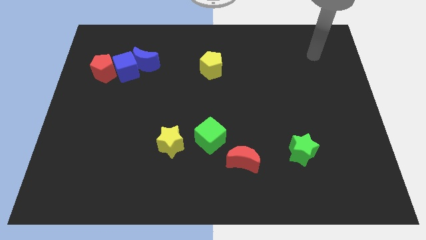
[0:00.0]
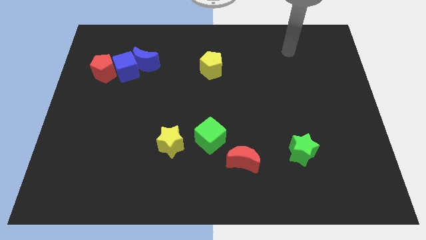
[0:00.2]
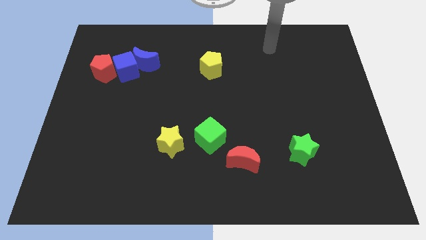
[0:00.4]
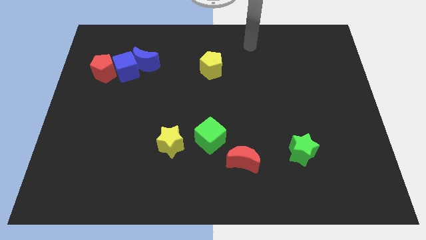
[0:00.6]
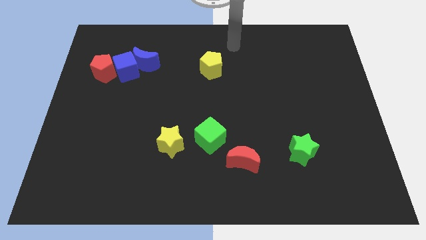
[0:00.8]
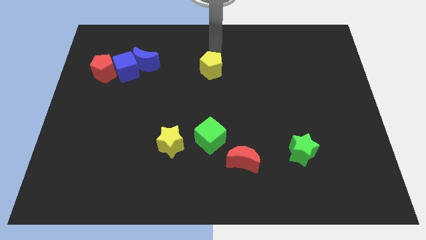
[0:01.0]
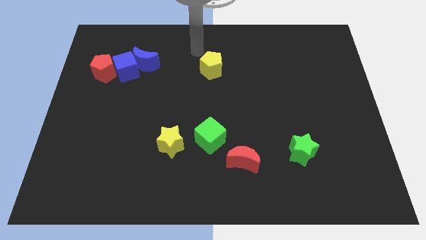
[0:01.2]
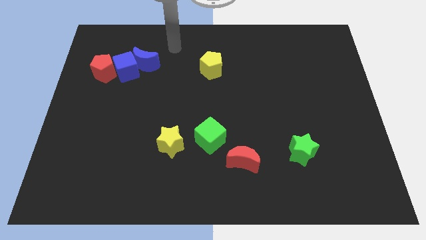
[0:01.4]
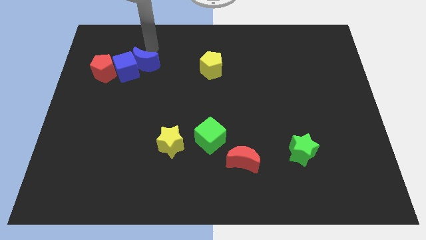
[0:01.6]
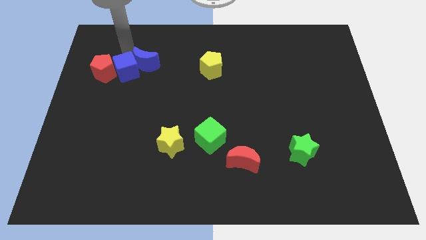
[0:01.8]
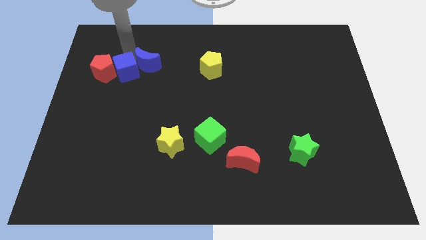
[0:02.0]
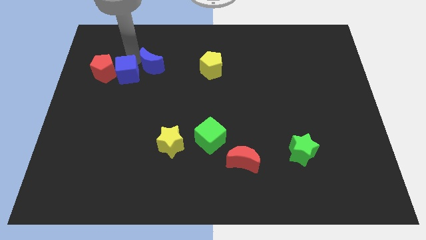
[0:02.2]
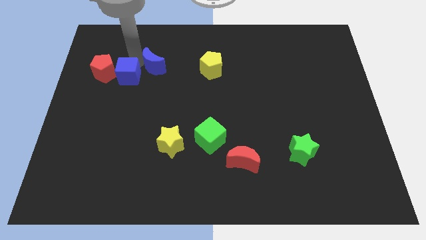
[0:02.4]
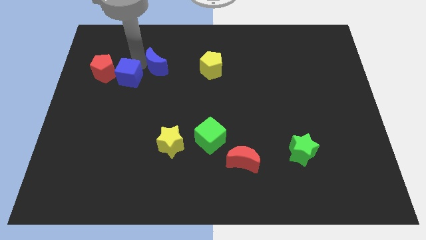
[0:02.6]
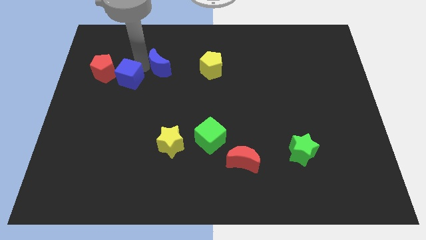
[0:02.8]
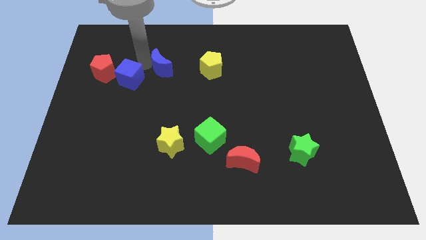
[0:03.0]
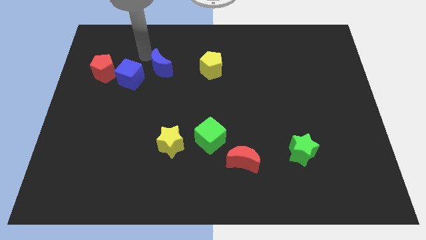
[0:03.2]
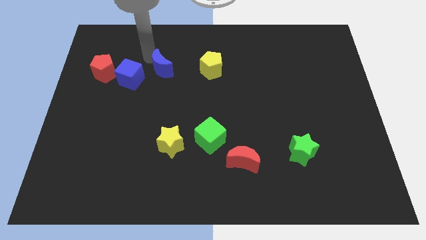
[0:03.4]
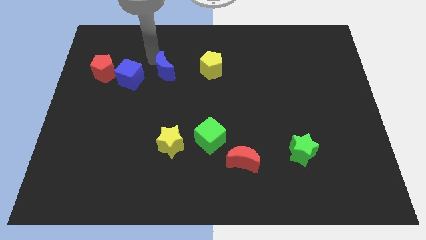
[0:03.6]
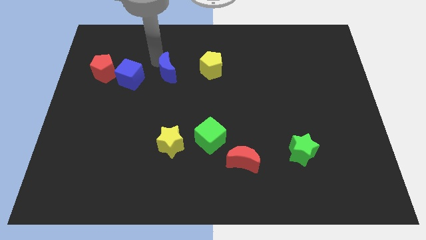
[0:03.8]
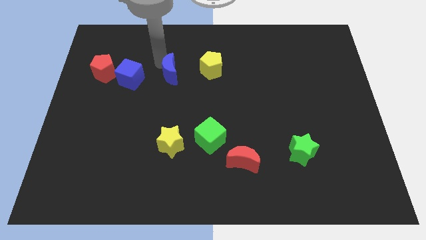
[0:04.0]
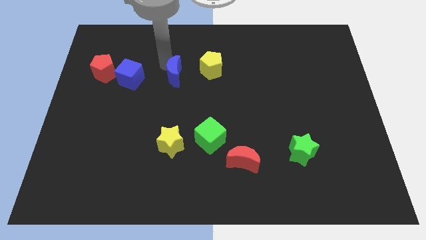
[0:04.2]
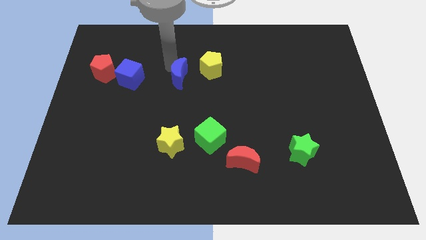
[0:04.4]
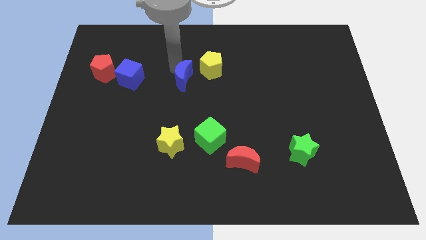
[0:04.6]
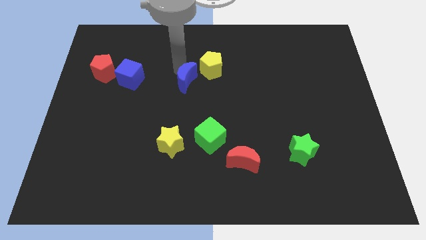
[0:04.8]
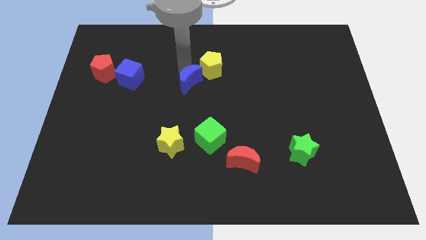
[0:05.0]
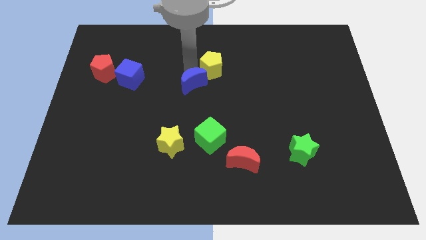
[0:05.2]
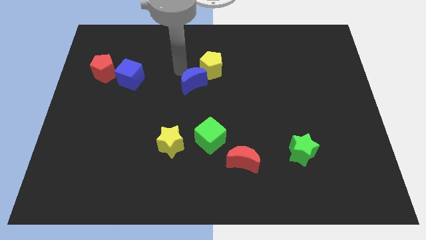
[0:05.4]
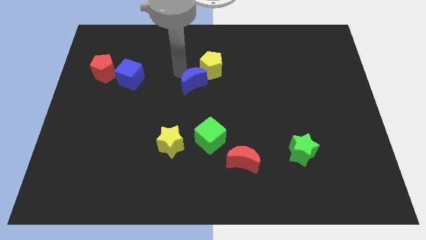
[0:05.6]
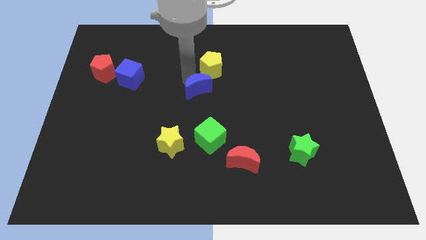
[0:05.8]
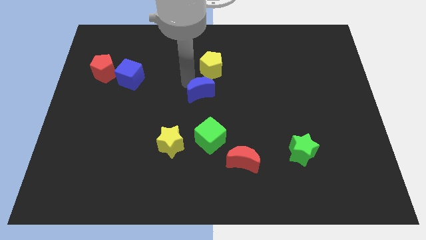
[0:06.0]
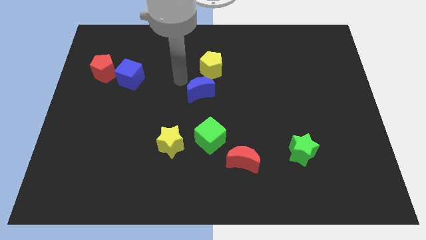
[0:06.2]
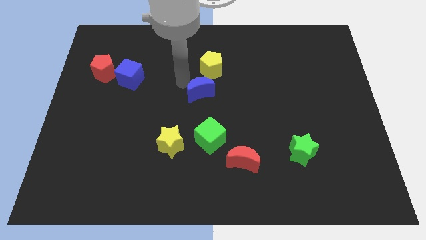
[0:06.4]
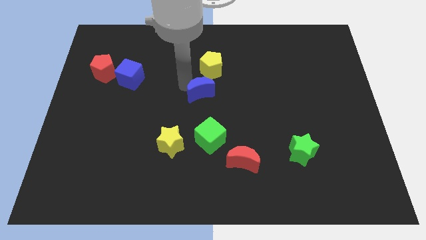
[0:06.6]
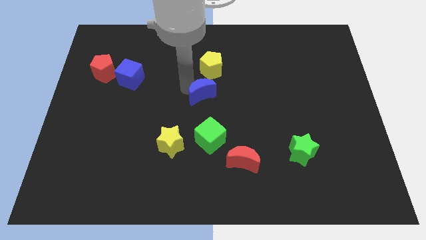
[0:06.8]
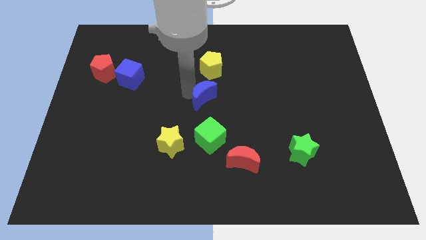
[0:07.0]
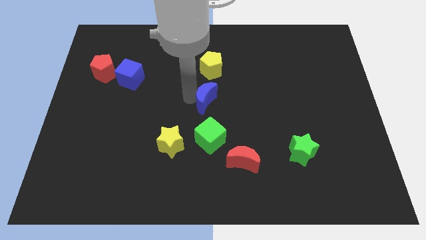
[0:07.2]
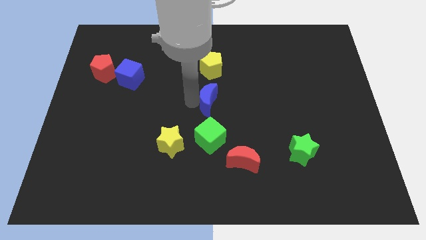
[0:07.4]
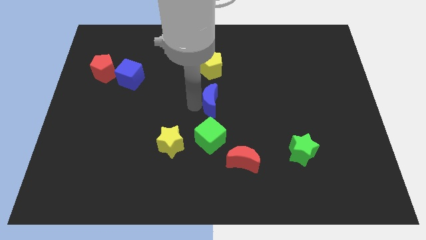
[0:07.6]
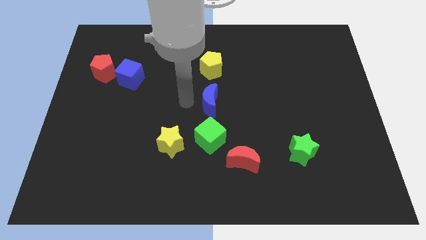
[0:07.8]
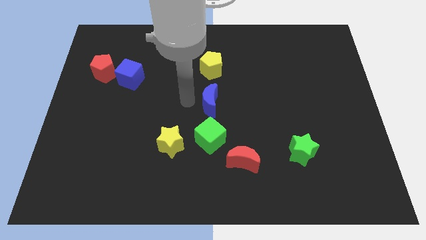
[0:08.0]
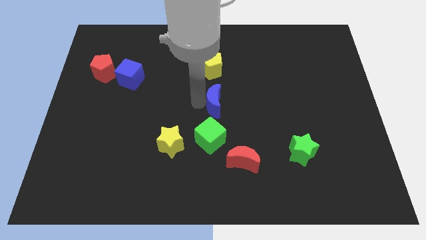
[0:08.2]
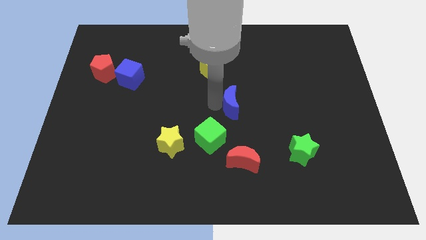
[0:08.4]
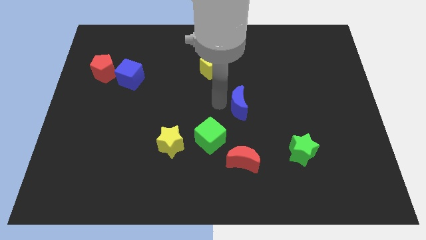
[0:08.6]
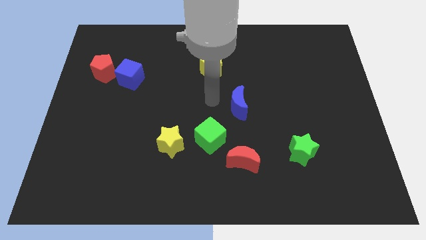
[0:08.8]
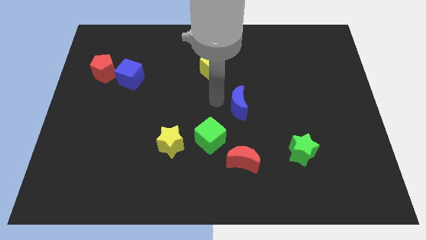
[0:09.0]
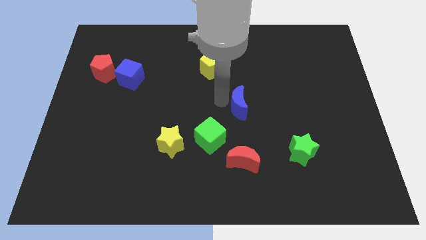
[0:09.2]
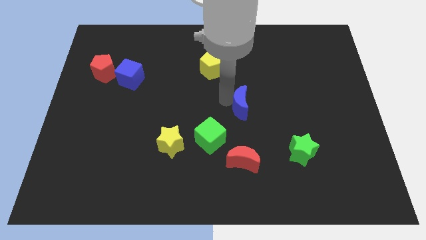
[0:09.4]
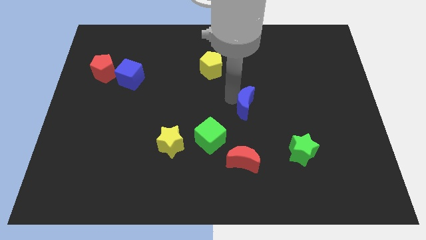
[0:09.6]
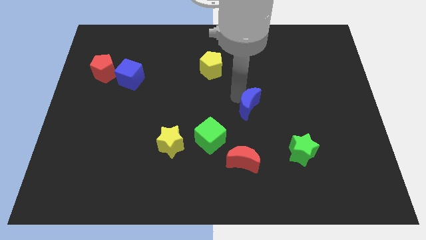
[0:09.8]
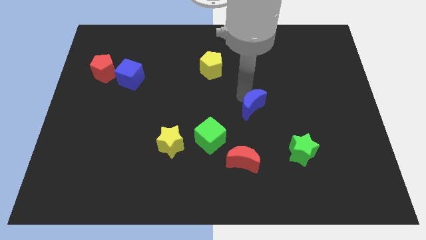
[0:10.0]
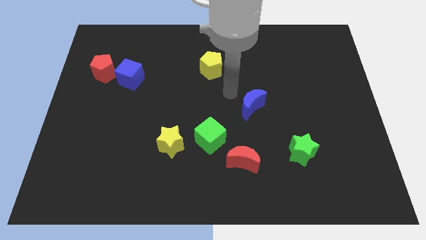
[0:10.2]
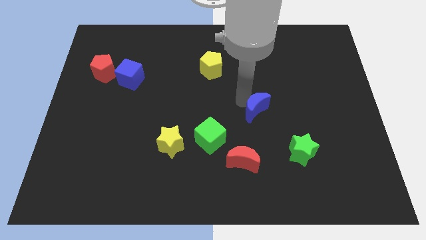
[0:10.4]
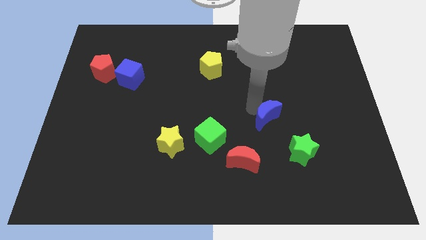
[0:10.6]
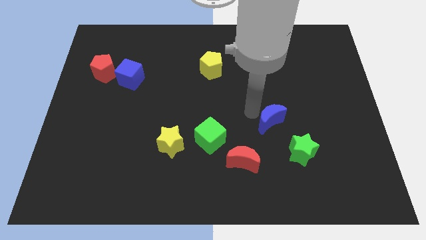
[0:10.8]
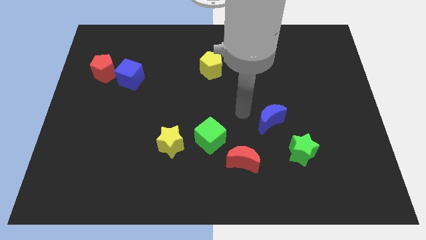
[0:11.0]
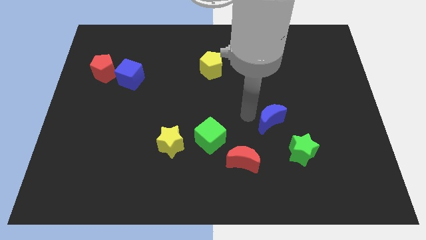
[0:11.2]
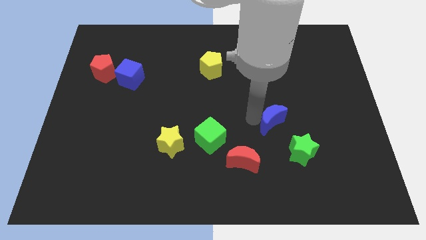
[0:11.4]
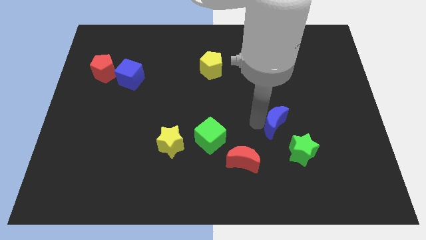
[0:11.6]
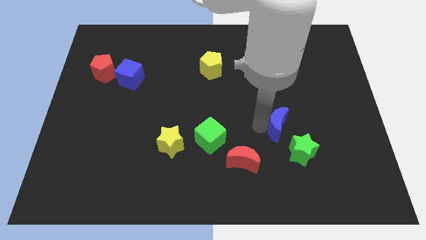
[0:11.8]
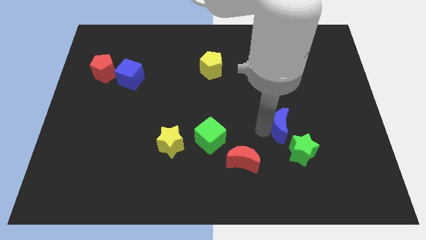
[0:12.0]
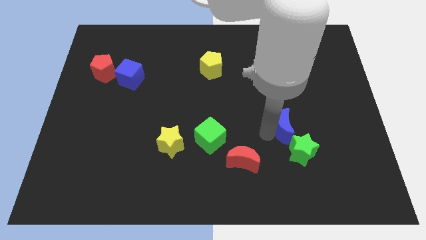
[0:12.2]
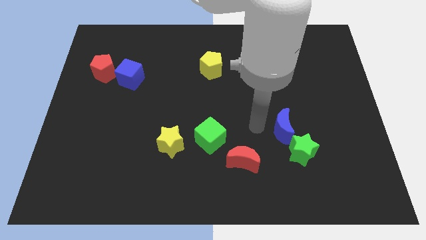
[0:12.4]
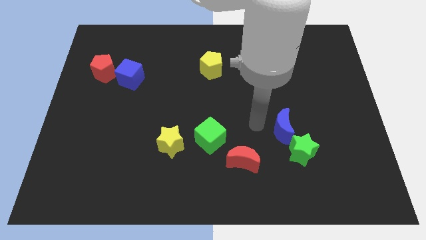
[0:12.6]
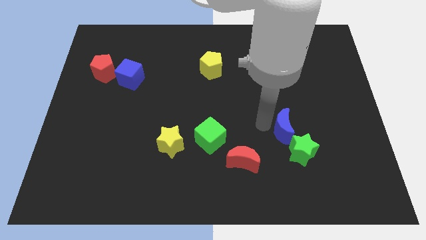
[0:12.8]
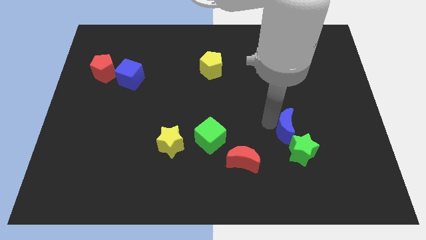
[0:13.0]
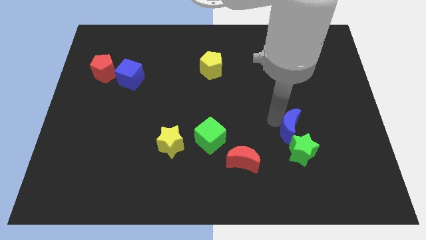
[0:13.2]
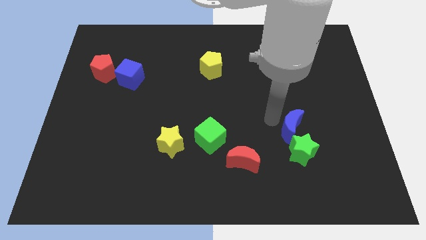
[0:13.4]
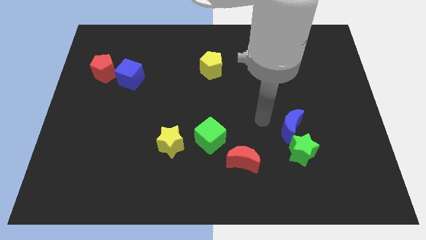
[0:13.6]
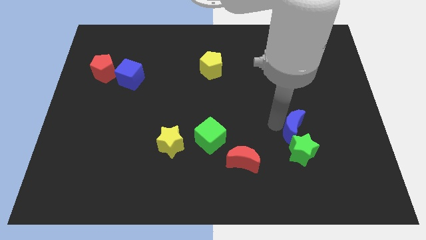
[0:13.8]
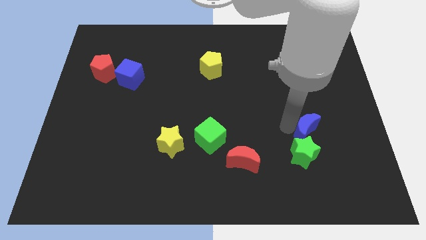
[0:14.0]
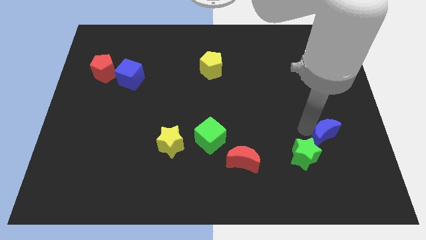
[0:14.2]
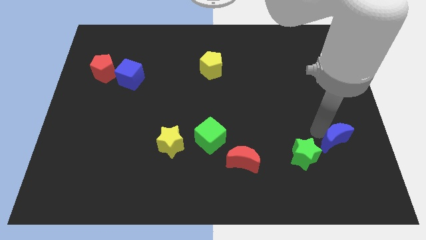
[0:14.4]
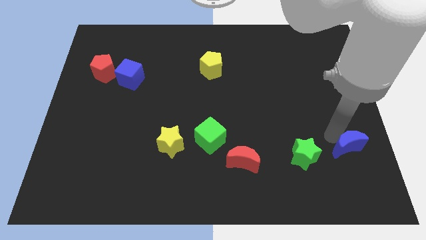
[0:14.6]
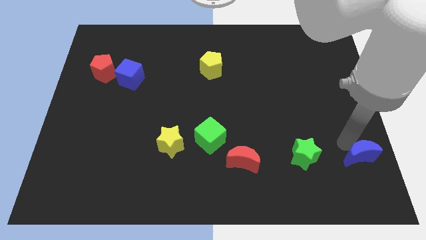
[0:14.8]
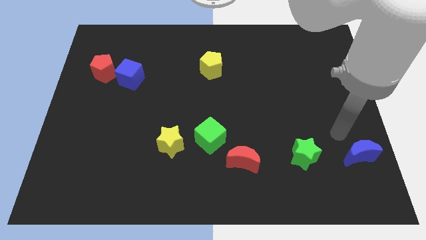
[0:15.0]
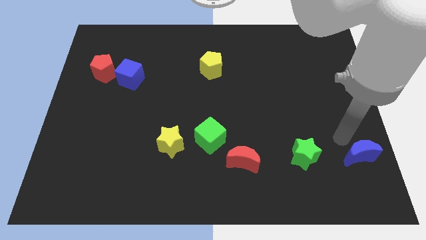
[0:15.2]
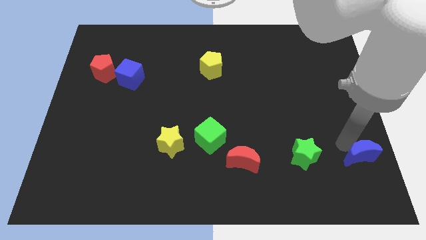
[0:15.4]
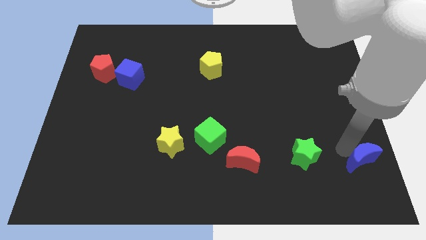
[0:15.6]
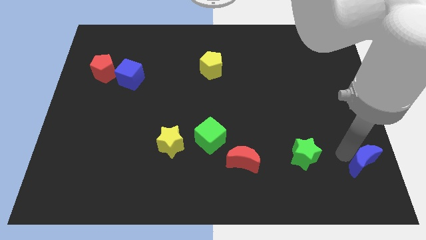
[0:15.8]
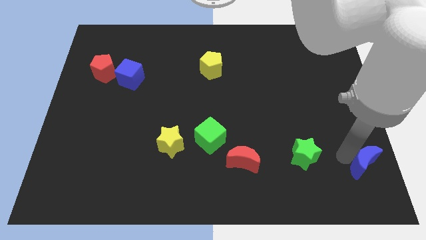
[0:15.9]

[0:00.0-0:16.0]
push the blue moon to the bottom right
